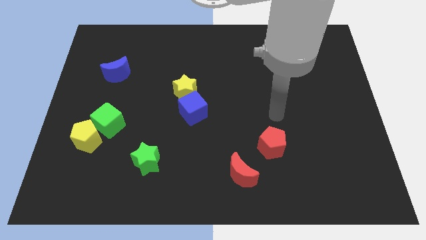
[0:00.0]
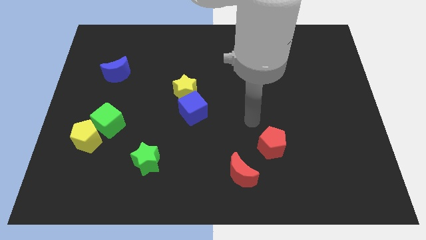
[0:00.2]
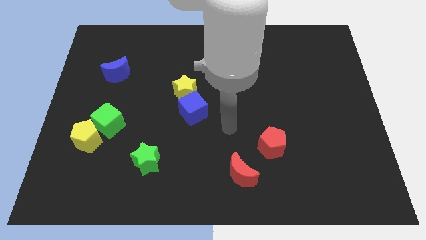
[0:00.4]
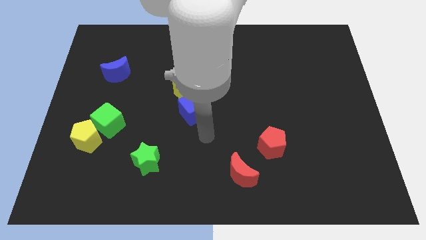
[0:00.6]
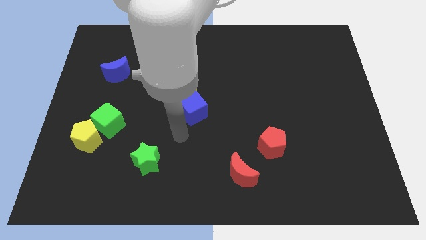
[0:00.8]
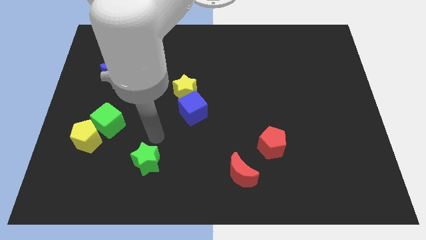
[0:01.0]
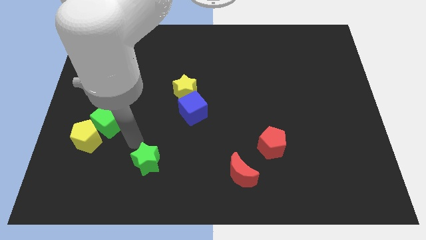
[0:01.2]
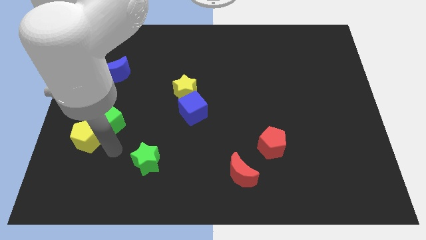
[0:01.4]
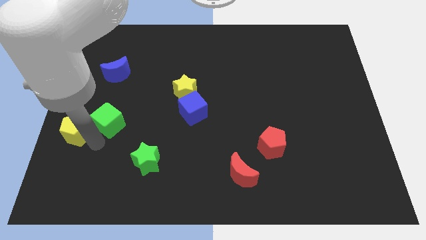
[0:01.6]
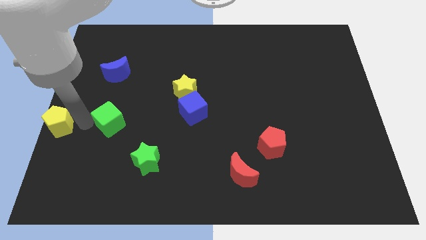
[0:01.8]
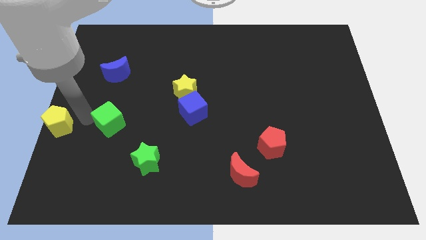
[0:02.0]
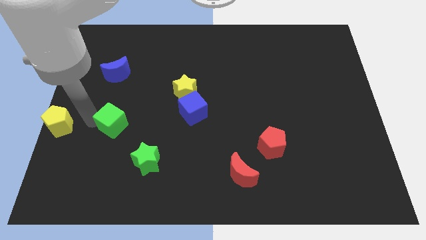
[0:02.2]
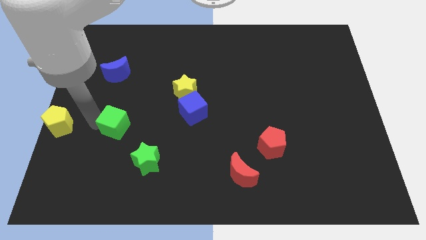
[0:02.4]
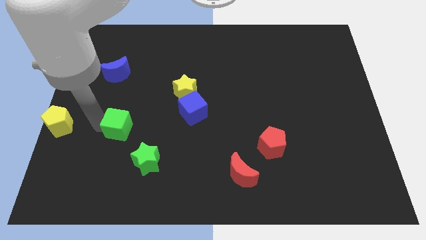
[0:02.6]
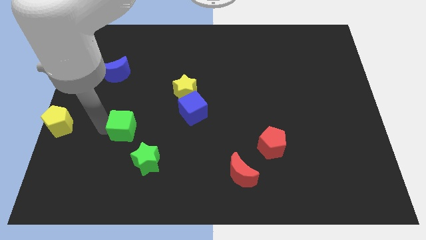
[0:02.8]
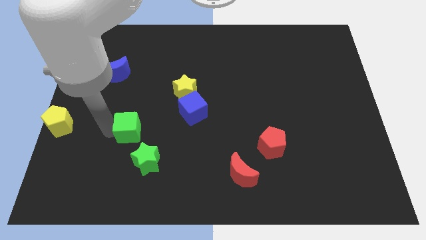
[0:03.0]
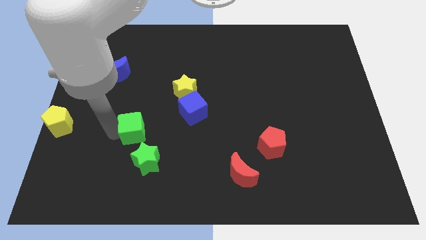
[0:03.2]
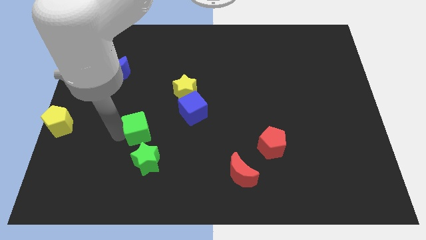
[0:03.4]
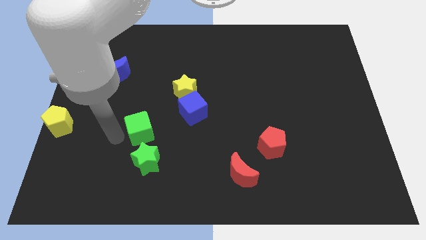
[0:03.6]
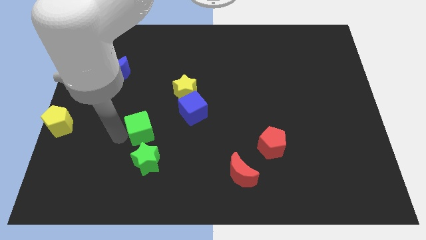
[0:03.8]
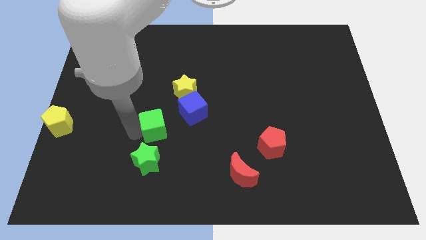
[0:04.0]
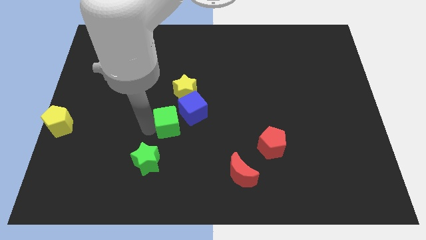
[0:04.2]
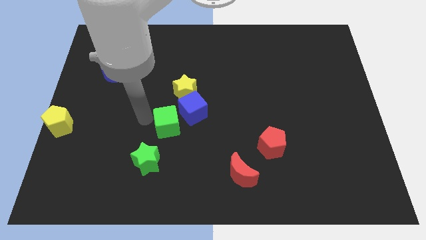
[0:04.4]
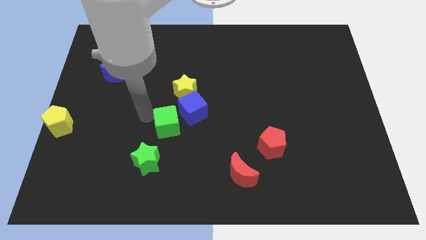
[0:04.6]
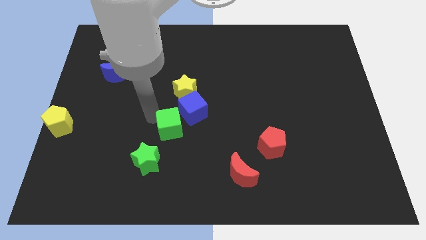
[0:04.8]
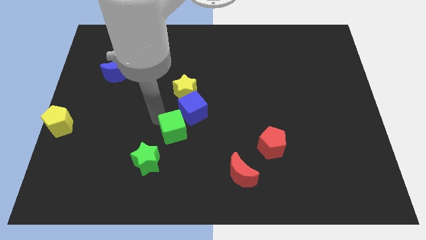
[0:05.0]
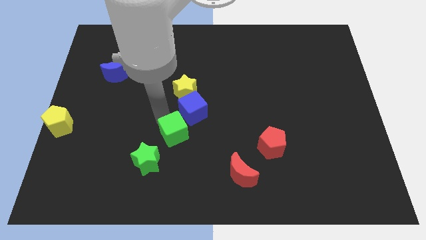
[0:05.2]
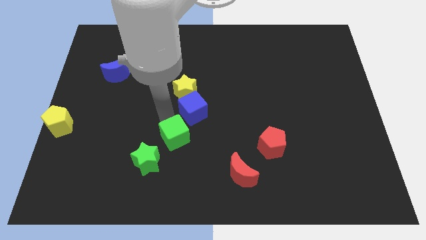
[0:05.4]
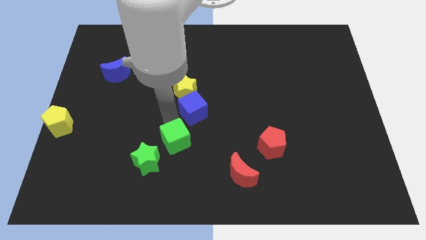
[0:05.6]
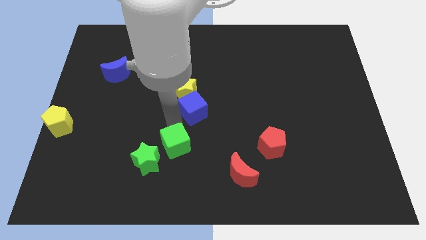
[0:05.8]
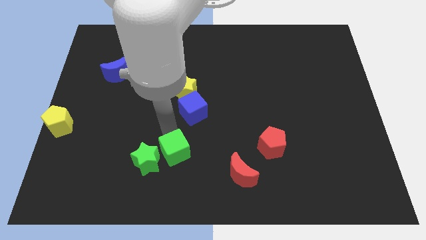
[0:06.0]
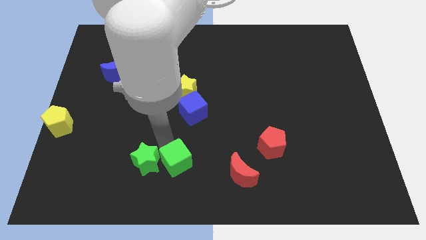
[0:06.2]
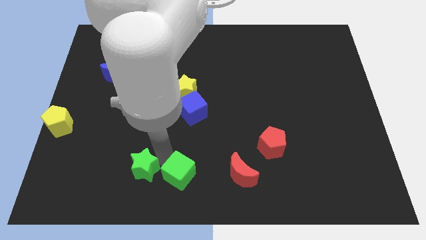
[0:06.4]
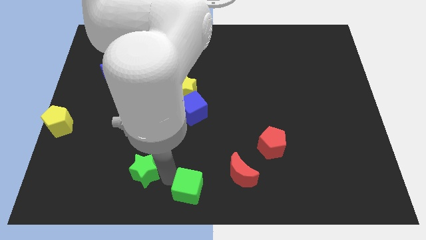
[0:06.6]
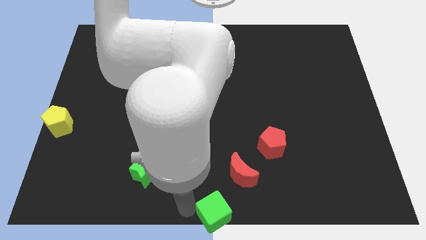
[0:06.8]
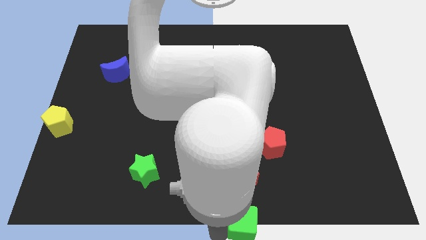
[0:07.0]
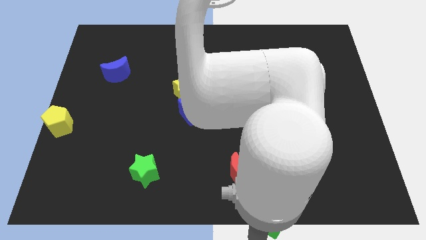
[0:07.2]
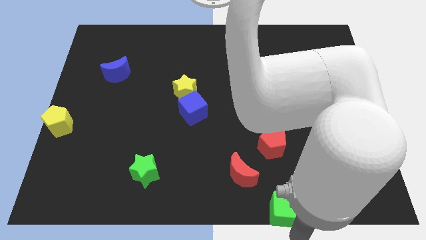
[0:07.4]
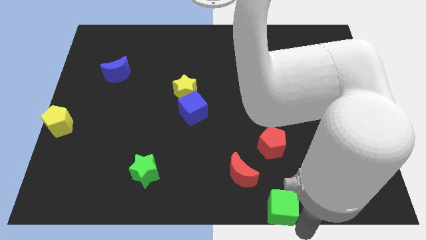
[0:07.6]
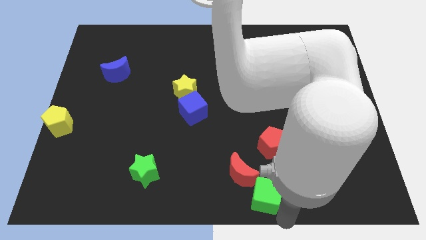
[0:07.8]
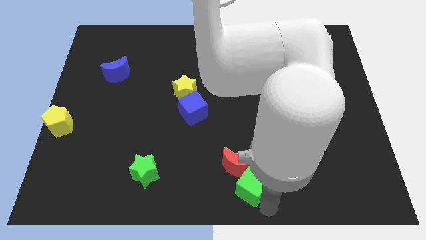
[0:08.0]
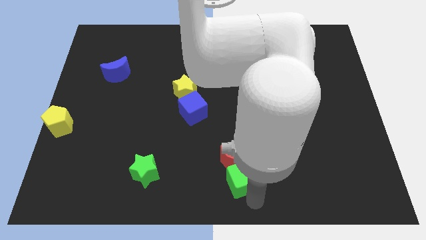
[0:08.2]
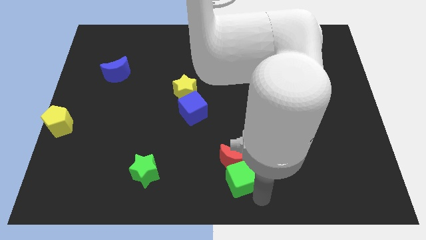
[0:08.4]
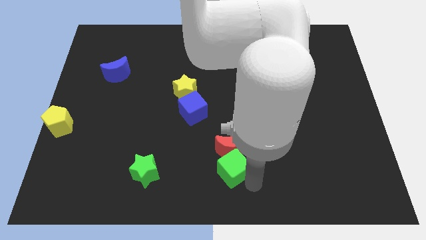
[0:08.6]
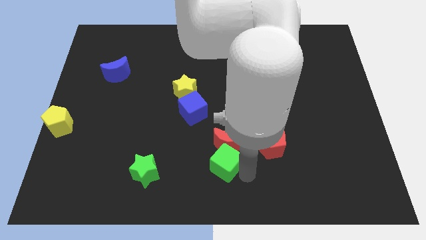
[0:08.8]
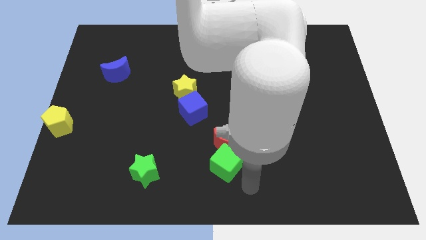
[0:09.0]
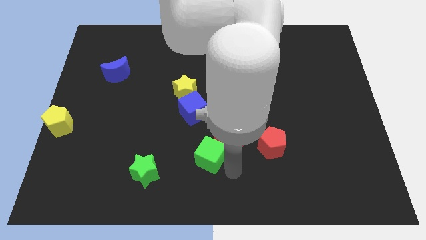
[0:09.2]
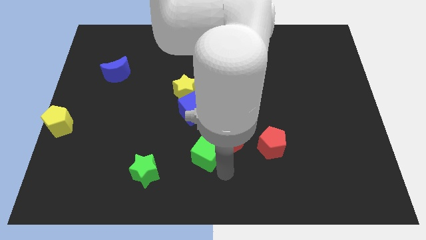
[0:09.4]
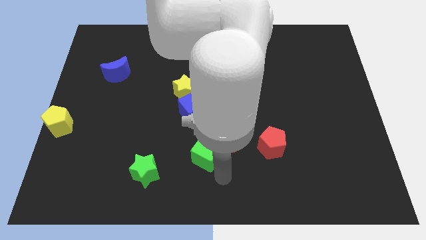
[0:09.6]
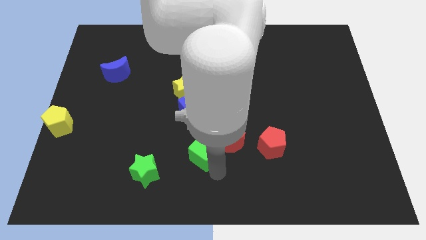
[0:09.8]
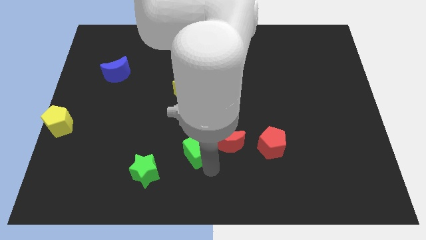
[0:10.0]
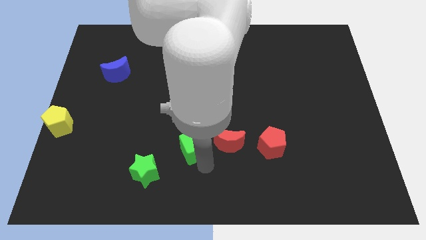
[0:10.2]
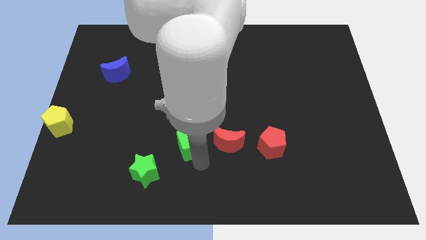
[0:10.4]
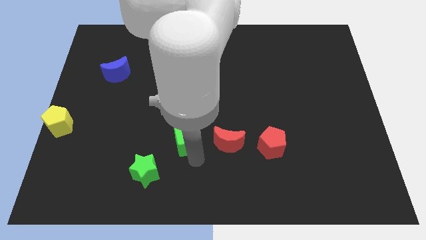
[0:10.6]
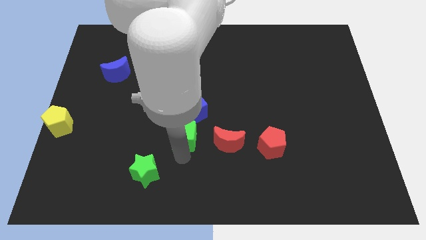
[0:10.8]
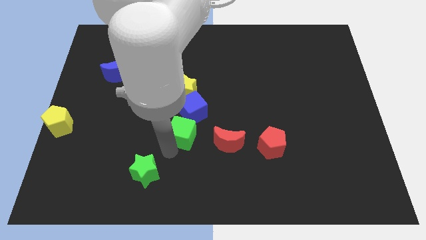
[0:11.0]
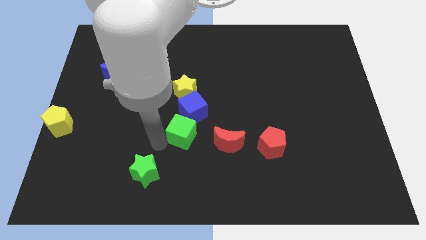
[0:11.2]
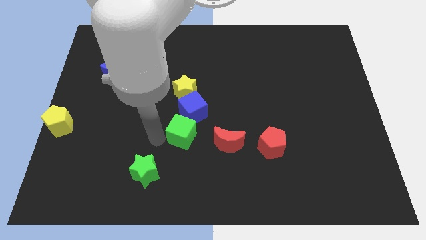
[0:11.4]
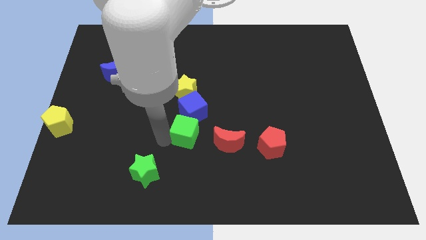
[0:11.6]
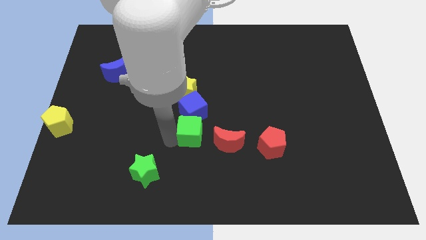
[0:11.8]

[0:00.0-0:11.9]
slide the green cube to the bottom right side of the blue cube

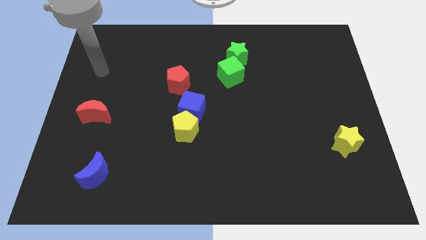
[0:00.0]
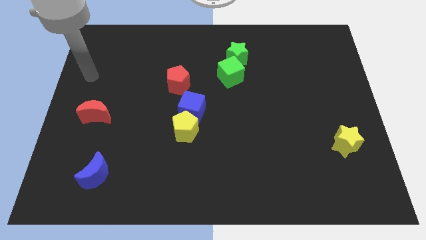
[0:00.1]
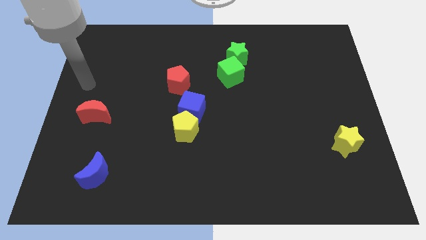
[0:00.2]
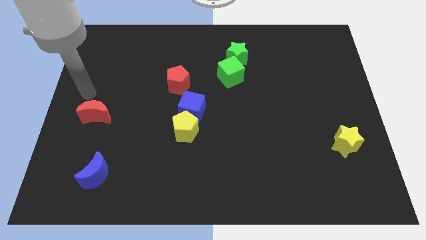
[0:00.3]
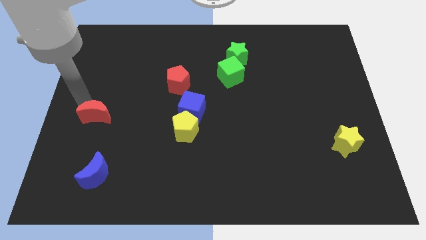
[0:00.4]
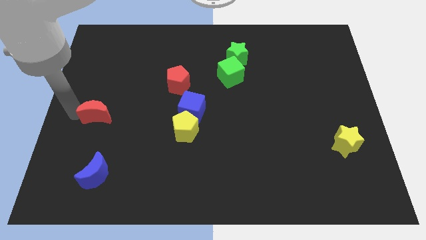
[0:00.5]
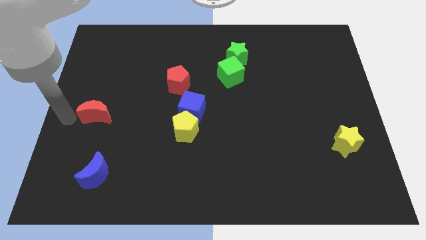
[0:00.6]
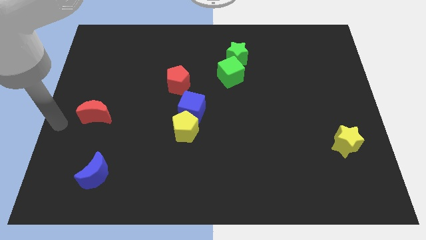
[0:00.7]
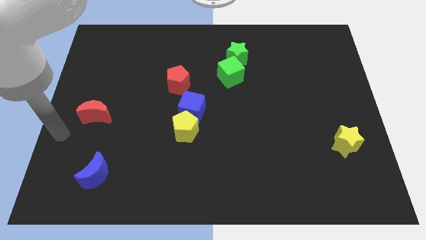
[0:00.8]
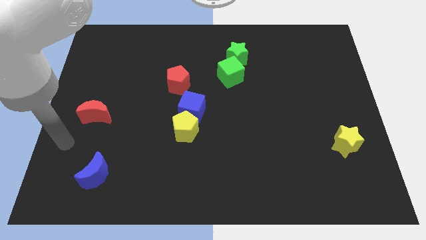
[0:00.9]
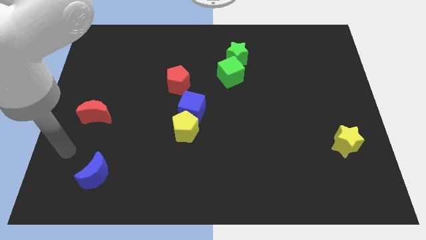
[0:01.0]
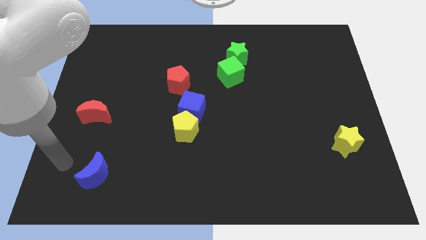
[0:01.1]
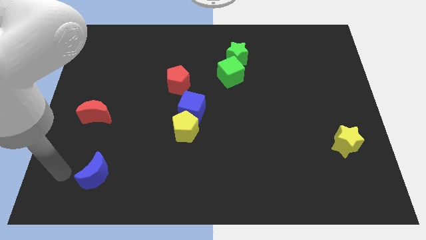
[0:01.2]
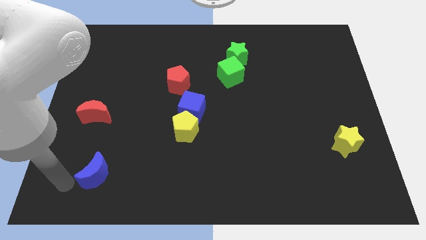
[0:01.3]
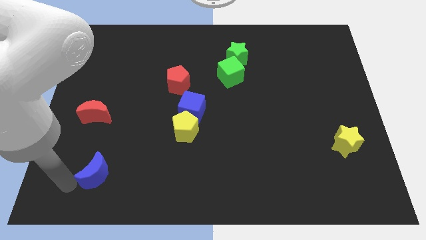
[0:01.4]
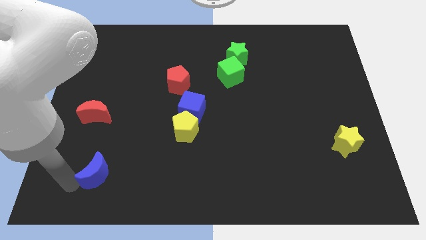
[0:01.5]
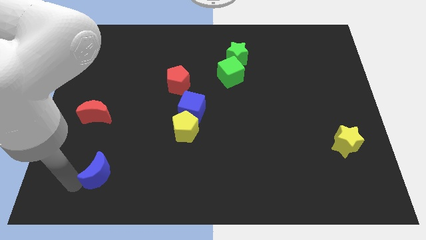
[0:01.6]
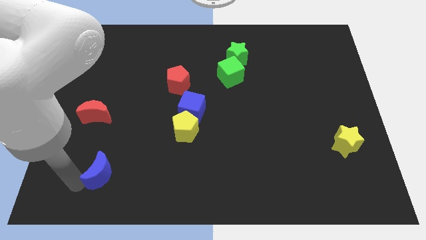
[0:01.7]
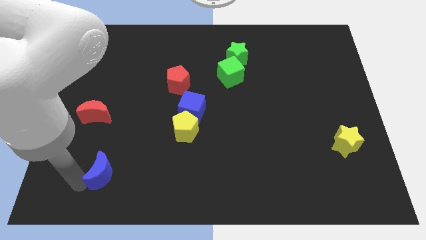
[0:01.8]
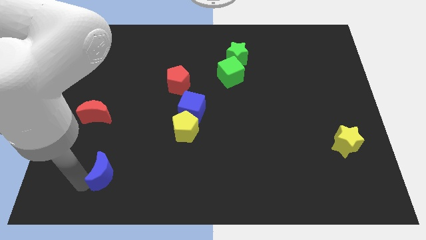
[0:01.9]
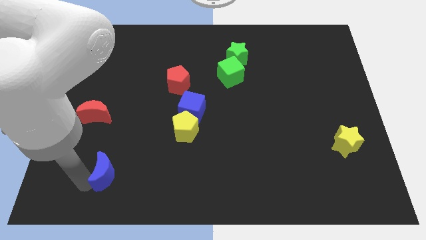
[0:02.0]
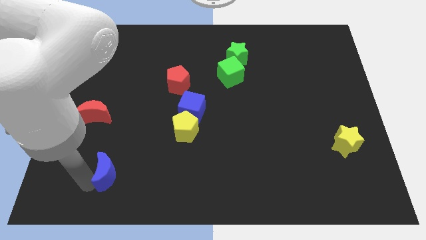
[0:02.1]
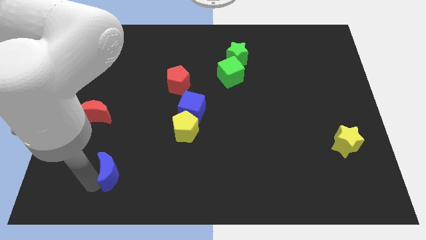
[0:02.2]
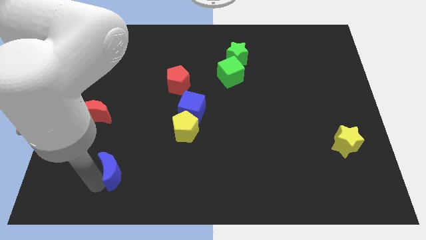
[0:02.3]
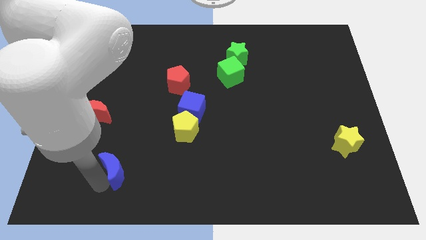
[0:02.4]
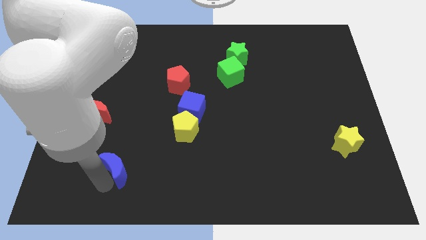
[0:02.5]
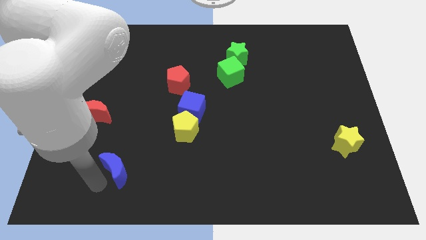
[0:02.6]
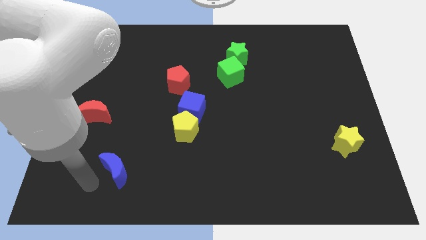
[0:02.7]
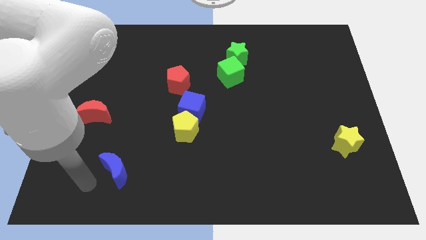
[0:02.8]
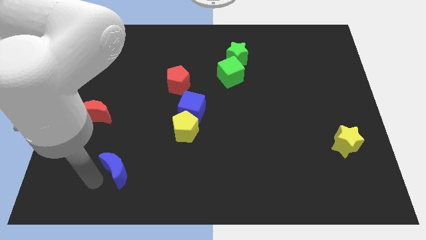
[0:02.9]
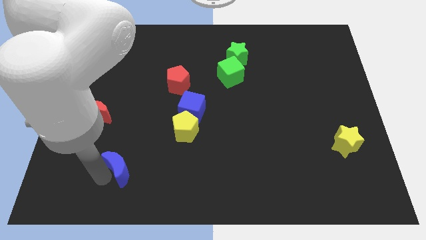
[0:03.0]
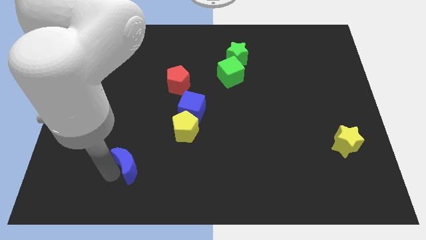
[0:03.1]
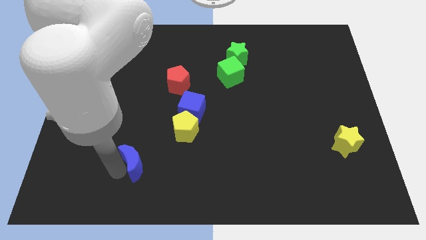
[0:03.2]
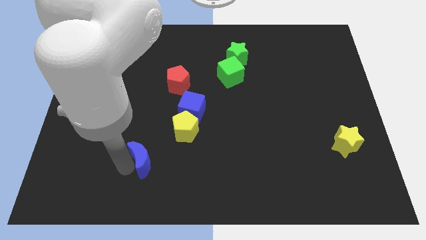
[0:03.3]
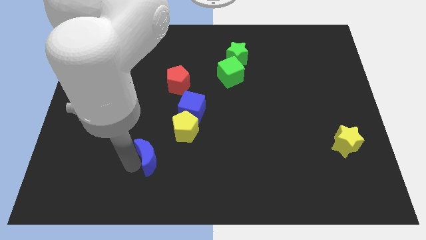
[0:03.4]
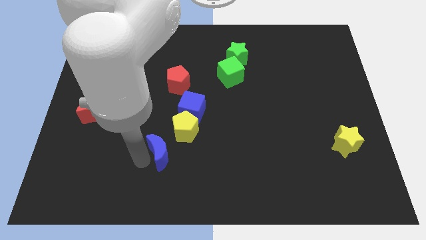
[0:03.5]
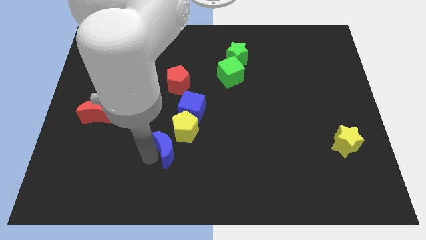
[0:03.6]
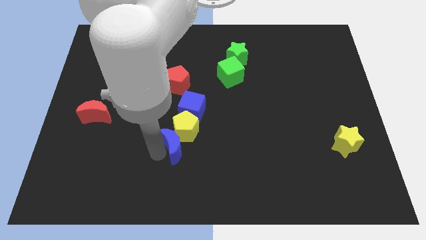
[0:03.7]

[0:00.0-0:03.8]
move the blue moon below the blue cube
